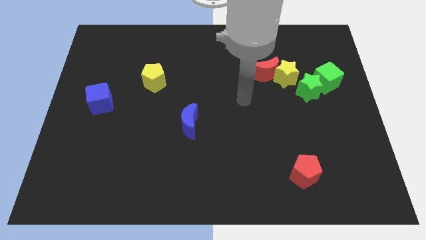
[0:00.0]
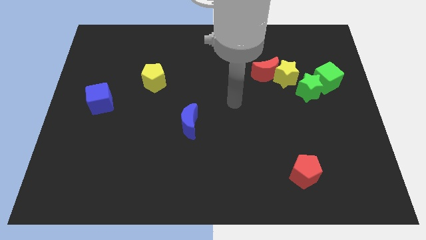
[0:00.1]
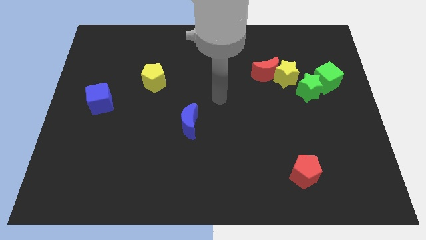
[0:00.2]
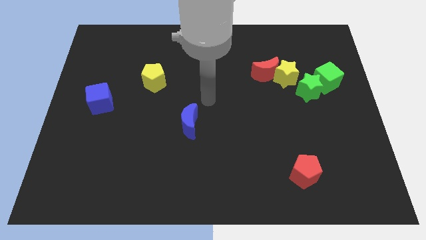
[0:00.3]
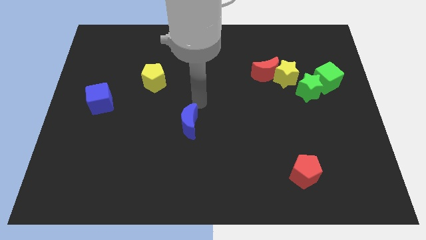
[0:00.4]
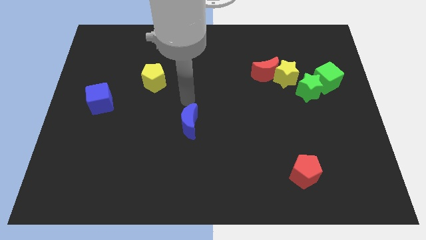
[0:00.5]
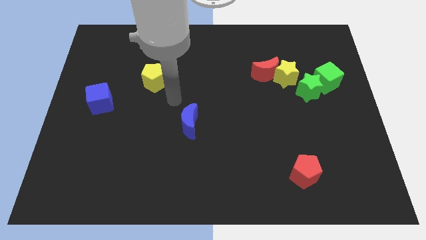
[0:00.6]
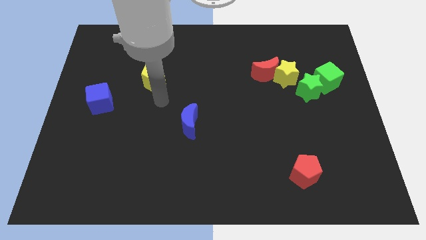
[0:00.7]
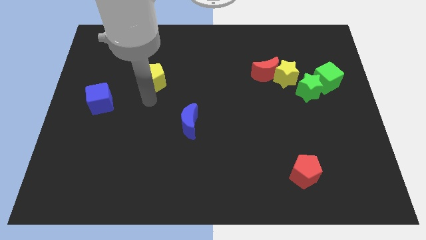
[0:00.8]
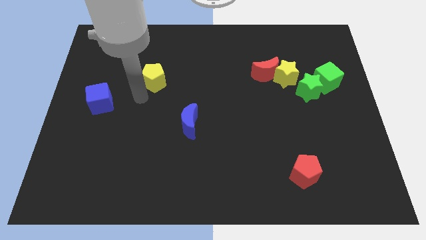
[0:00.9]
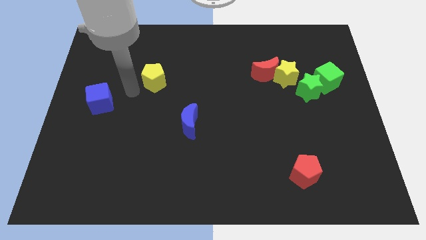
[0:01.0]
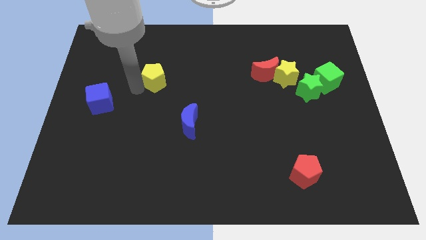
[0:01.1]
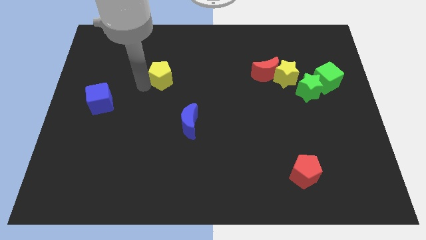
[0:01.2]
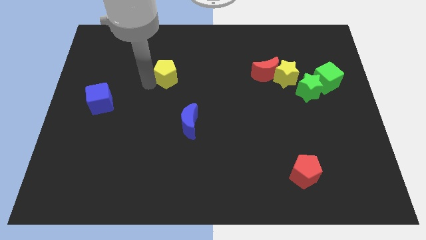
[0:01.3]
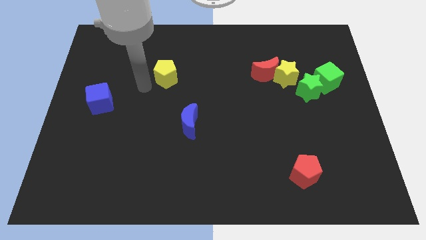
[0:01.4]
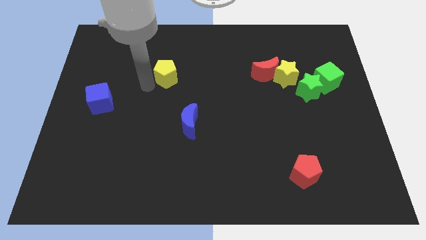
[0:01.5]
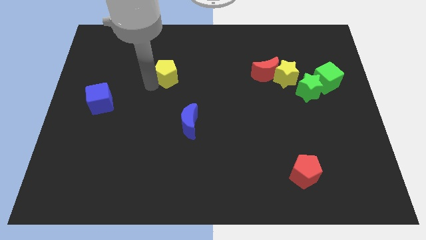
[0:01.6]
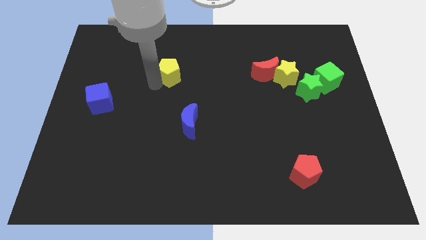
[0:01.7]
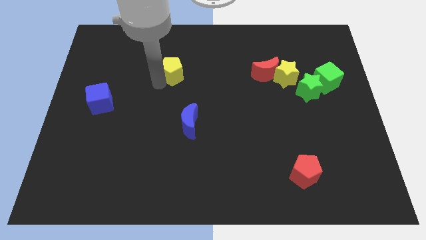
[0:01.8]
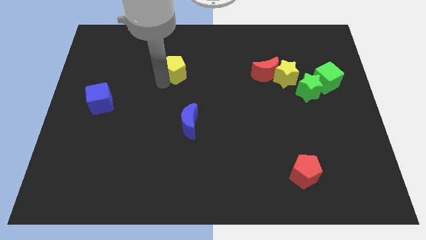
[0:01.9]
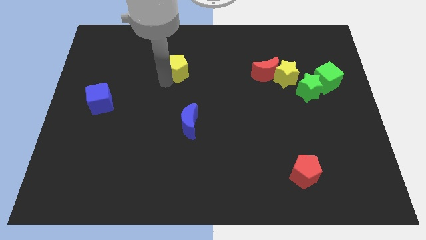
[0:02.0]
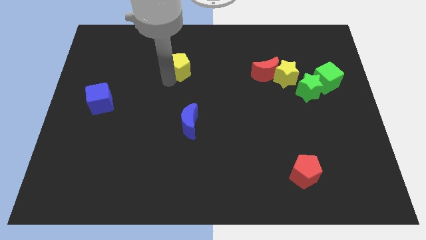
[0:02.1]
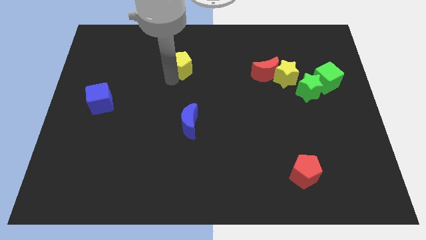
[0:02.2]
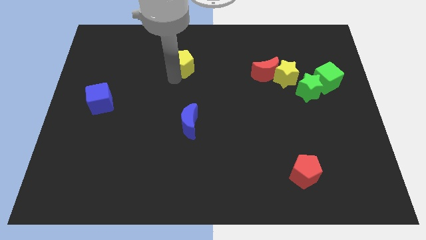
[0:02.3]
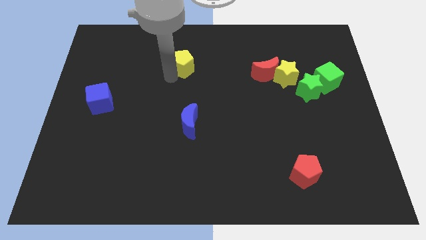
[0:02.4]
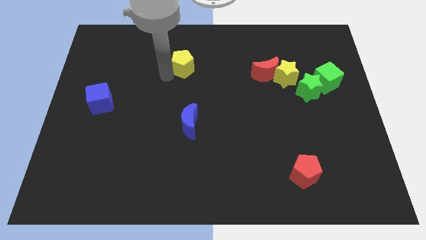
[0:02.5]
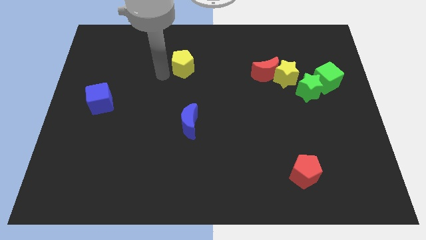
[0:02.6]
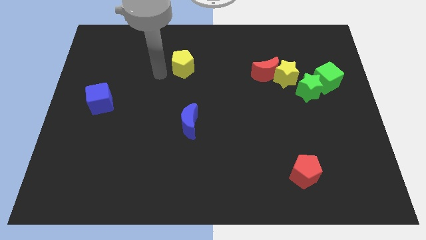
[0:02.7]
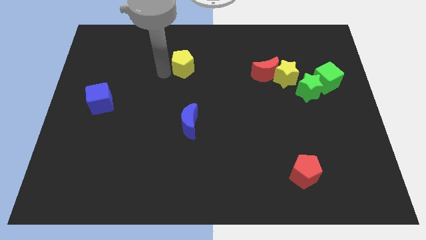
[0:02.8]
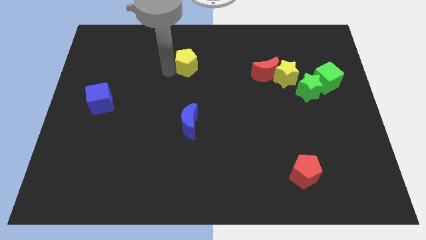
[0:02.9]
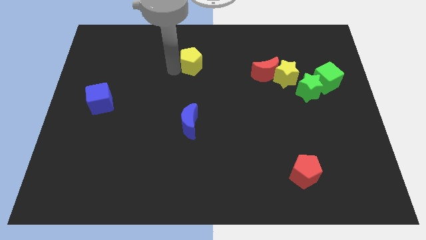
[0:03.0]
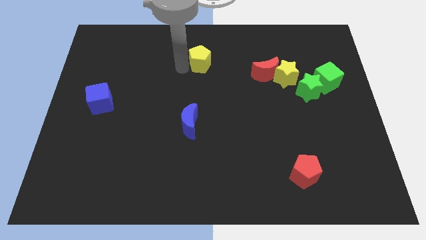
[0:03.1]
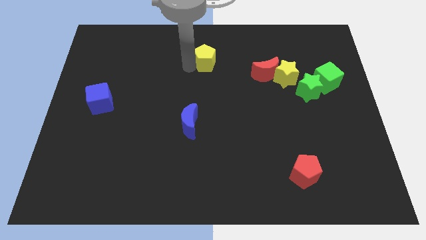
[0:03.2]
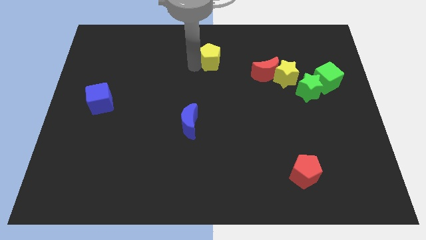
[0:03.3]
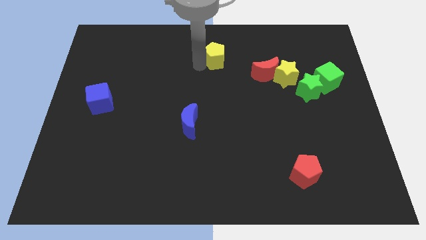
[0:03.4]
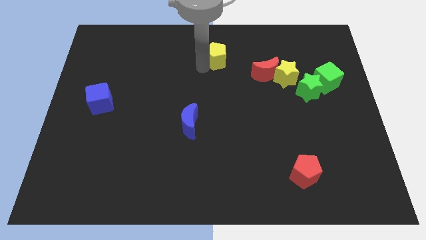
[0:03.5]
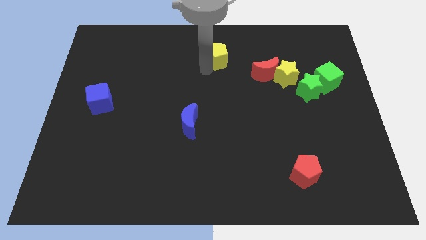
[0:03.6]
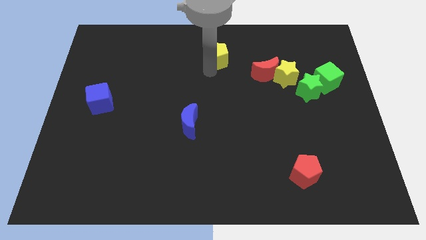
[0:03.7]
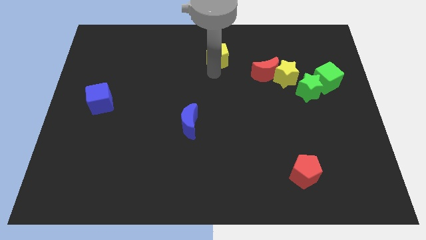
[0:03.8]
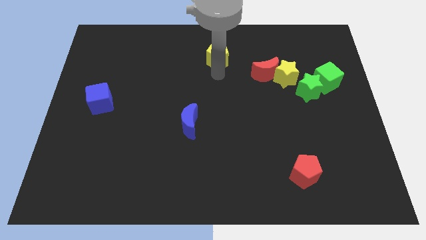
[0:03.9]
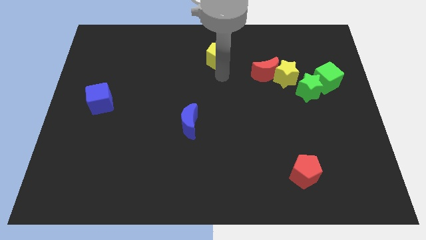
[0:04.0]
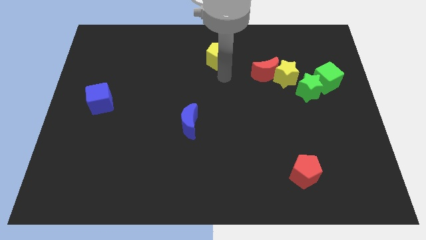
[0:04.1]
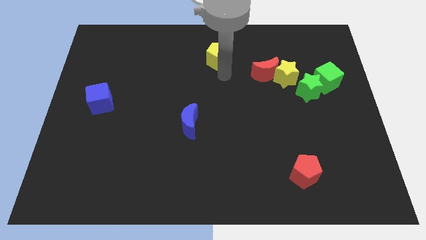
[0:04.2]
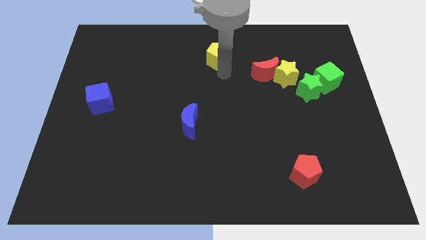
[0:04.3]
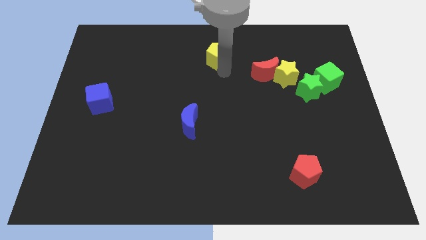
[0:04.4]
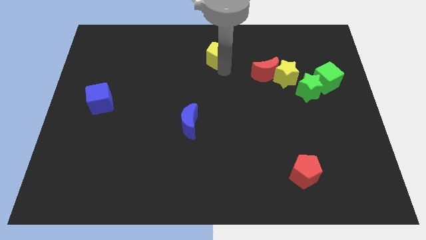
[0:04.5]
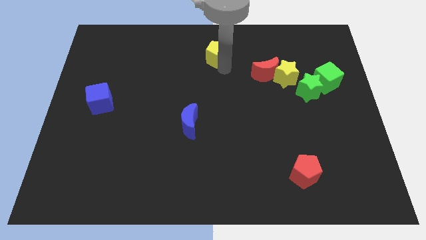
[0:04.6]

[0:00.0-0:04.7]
slide the yellow pentagon to the top

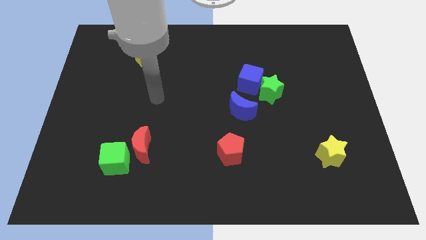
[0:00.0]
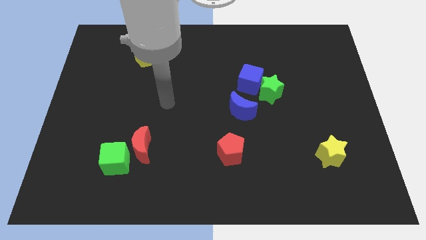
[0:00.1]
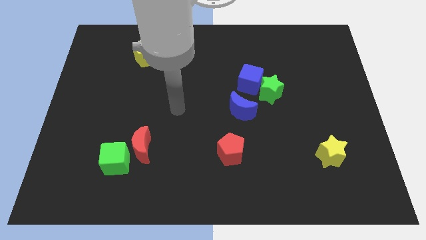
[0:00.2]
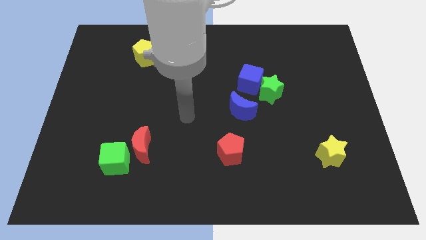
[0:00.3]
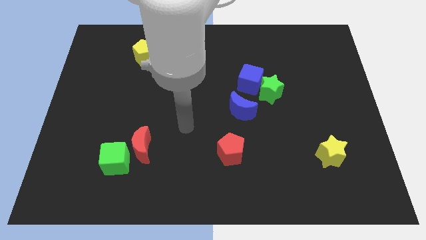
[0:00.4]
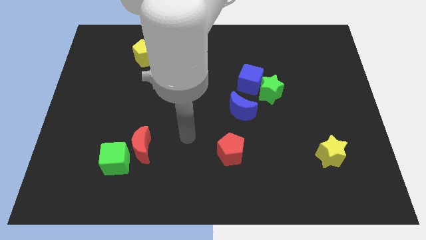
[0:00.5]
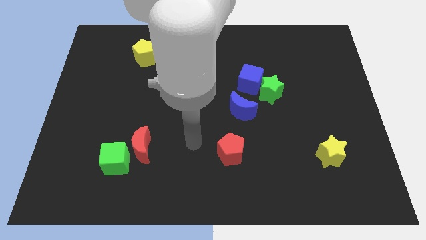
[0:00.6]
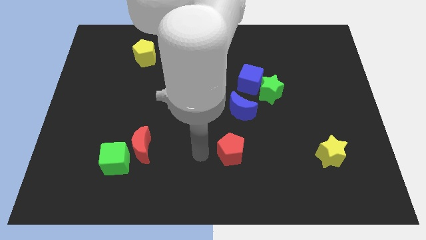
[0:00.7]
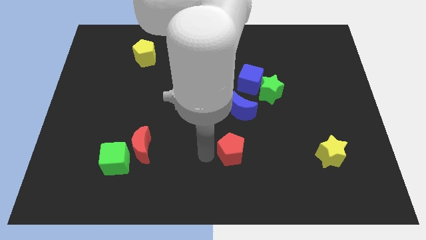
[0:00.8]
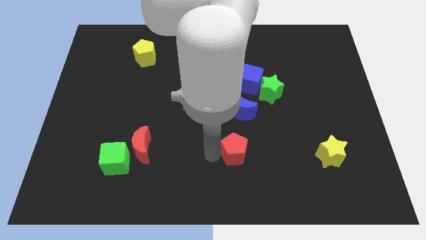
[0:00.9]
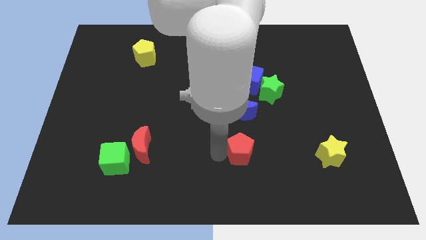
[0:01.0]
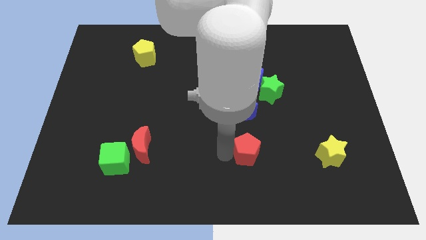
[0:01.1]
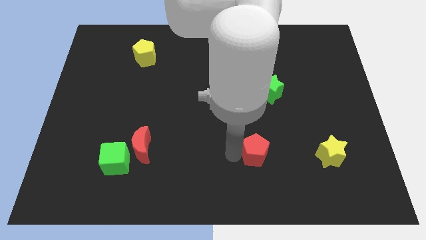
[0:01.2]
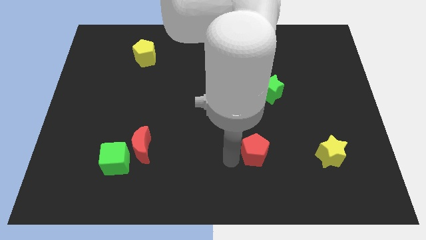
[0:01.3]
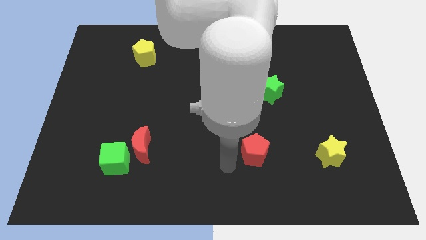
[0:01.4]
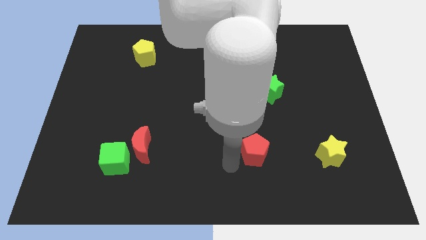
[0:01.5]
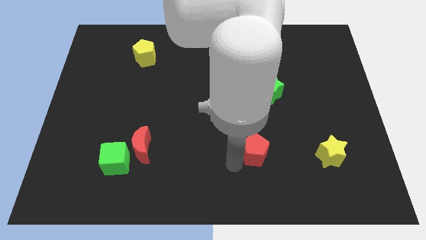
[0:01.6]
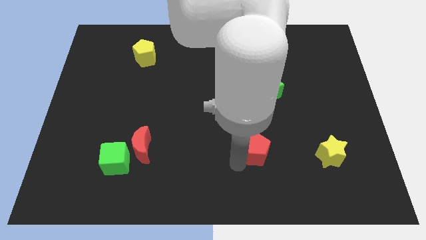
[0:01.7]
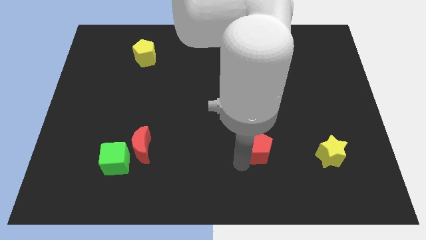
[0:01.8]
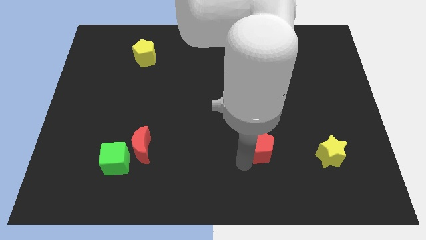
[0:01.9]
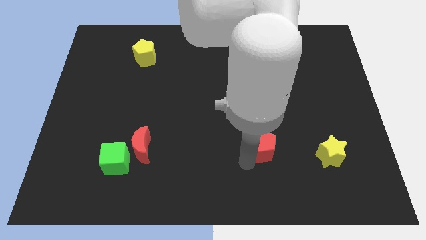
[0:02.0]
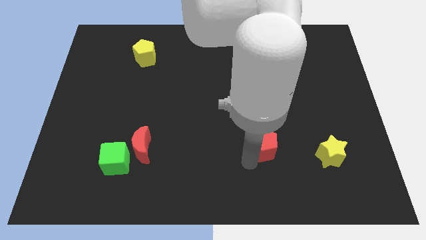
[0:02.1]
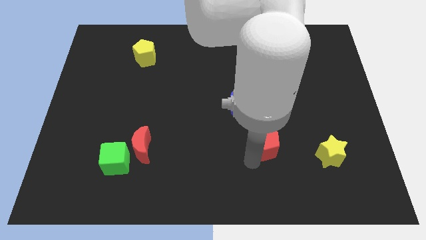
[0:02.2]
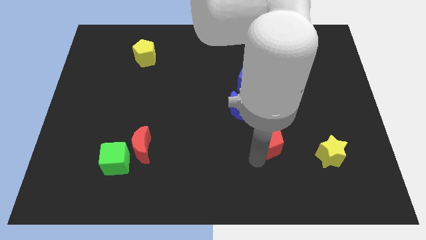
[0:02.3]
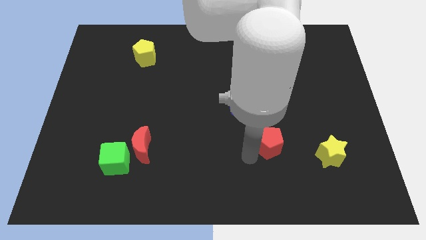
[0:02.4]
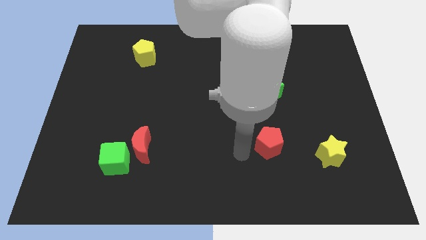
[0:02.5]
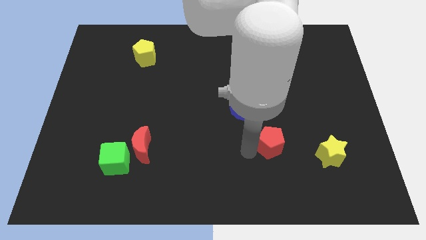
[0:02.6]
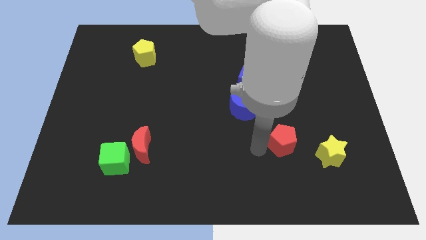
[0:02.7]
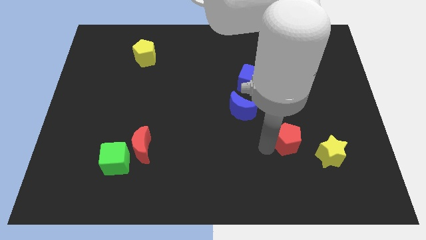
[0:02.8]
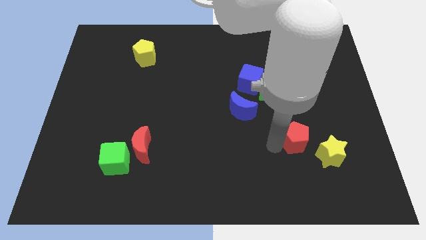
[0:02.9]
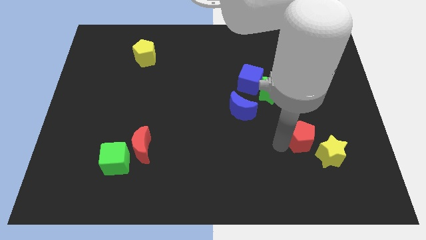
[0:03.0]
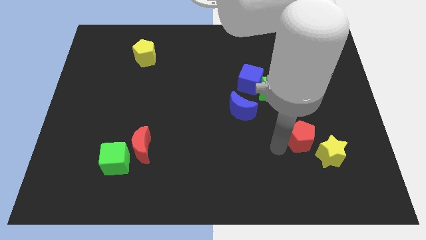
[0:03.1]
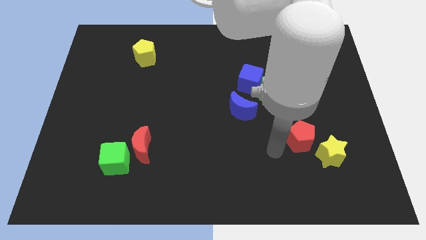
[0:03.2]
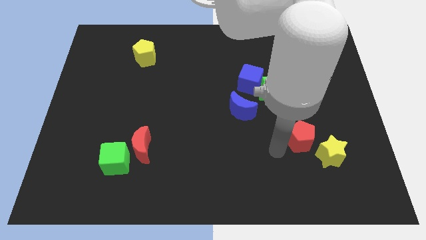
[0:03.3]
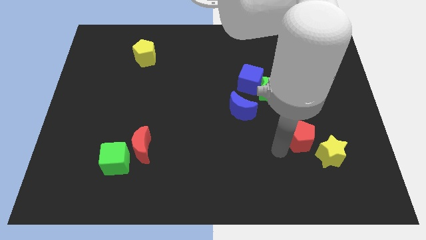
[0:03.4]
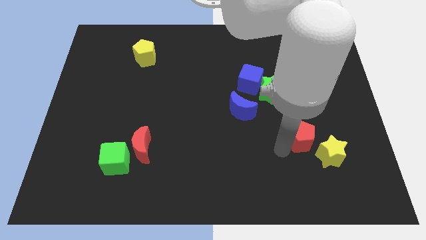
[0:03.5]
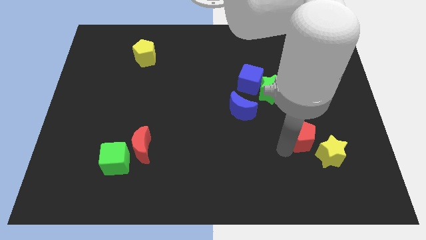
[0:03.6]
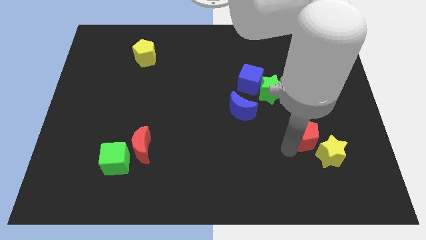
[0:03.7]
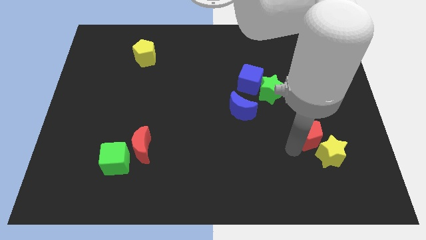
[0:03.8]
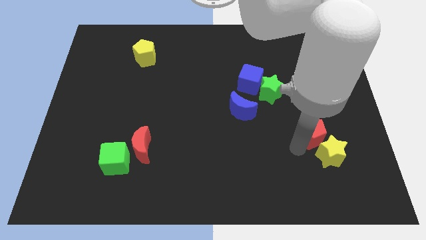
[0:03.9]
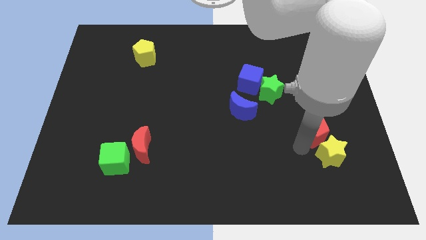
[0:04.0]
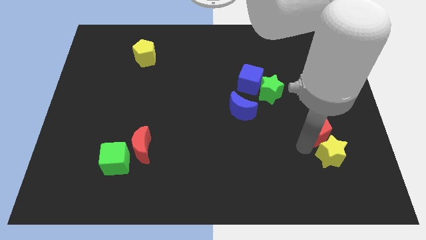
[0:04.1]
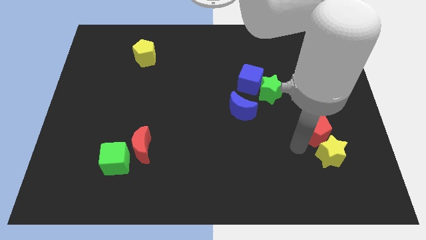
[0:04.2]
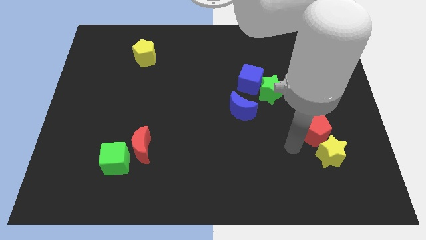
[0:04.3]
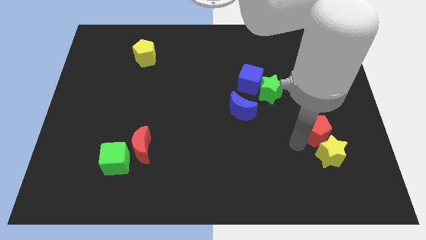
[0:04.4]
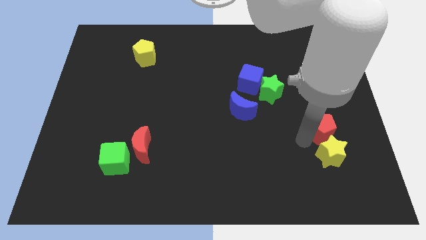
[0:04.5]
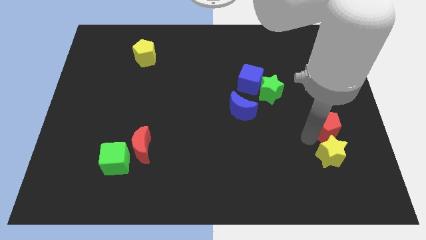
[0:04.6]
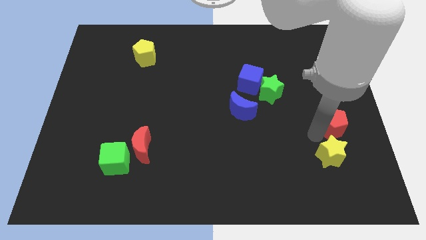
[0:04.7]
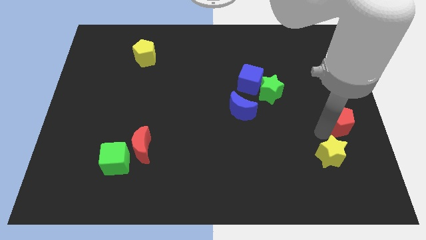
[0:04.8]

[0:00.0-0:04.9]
slide the red pentagon to the right side of the board
